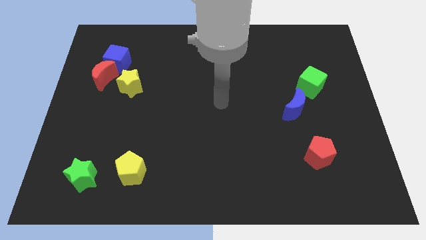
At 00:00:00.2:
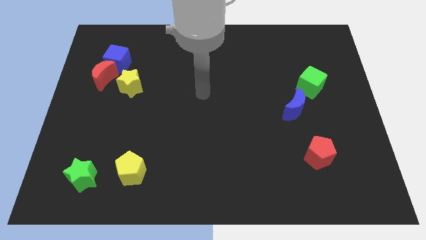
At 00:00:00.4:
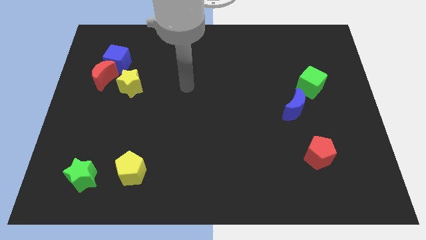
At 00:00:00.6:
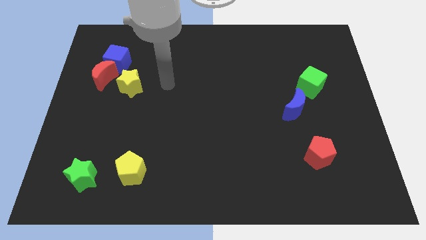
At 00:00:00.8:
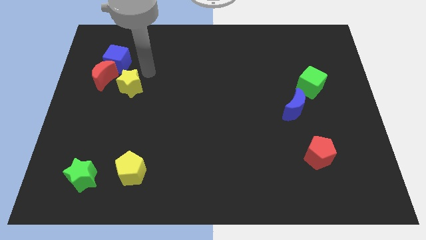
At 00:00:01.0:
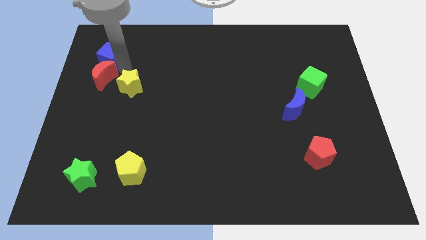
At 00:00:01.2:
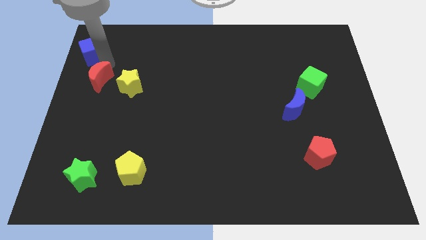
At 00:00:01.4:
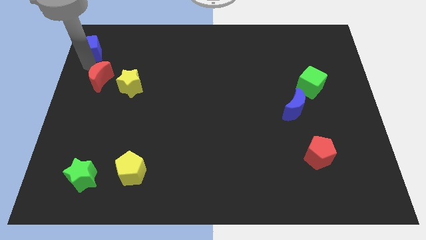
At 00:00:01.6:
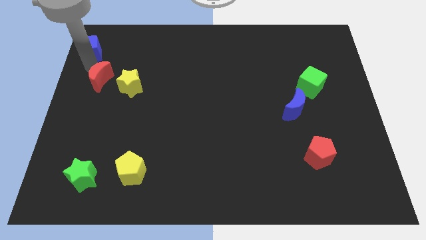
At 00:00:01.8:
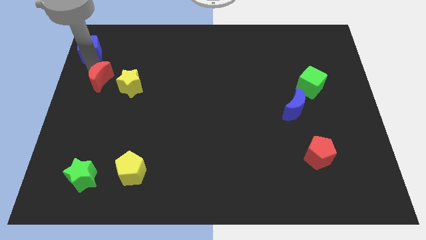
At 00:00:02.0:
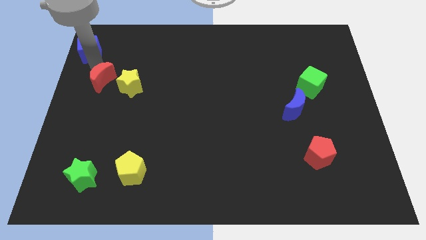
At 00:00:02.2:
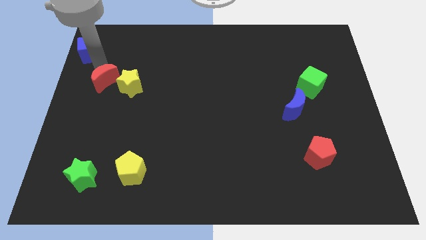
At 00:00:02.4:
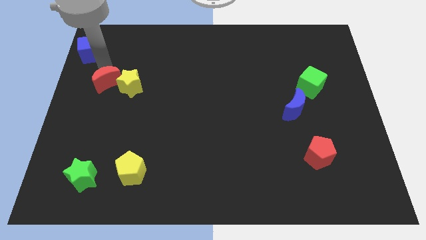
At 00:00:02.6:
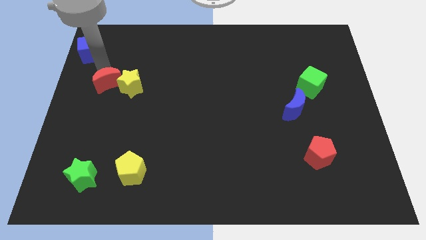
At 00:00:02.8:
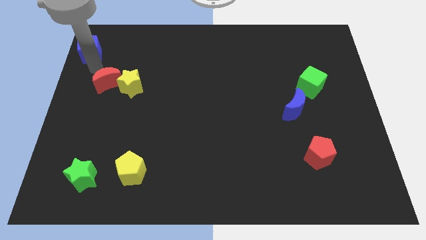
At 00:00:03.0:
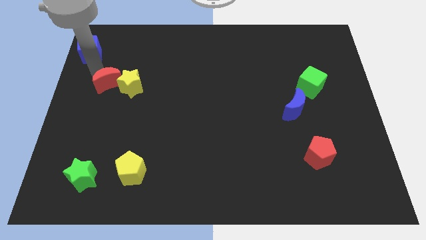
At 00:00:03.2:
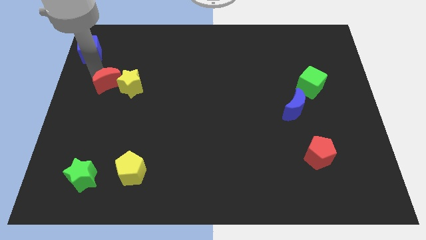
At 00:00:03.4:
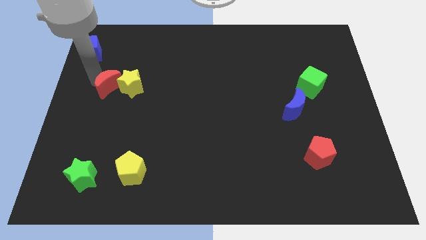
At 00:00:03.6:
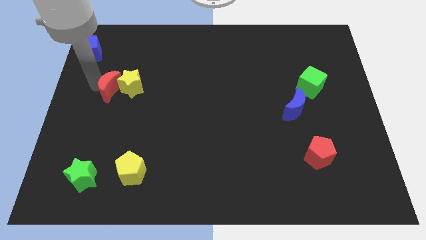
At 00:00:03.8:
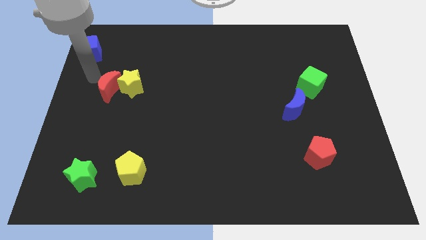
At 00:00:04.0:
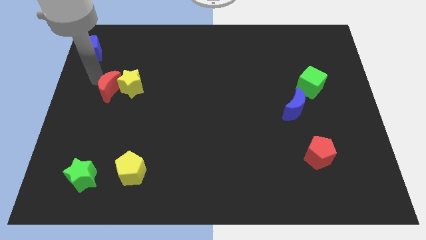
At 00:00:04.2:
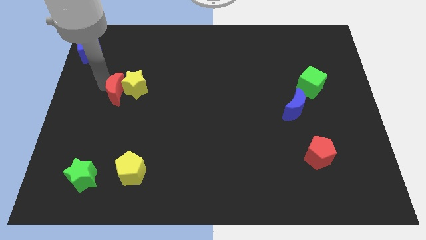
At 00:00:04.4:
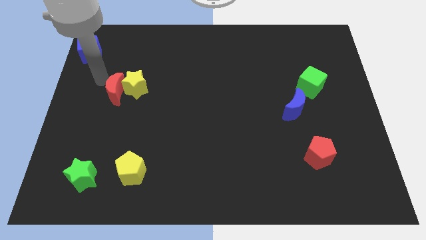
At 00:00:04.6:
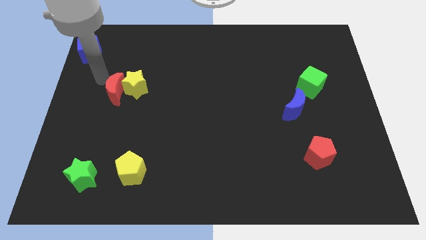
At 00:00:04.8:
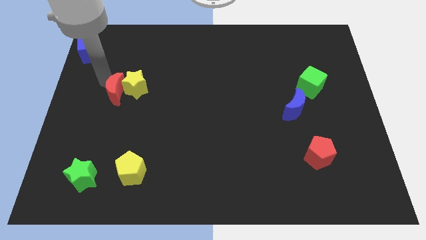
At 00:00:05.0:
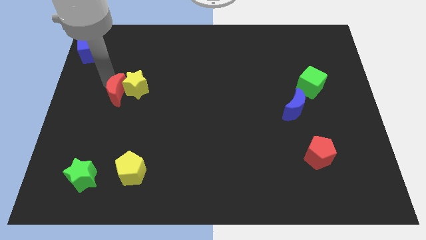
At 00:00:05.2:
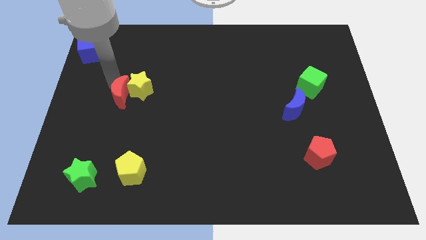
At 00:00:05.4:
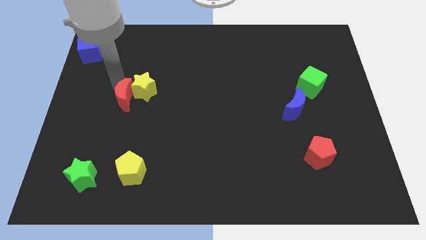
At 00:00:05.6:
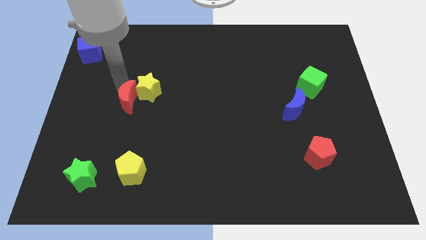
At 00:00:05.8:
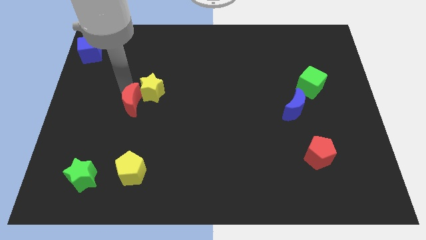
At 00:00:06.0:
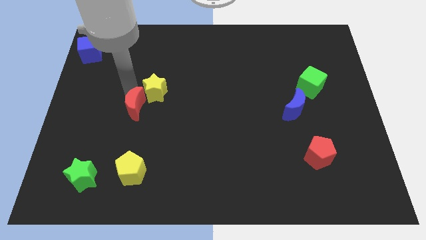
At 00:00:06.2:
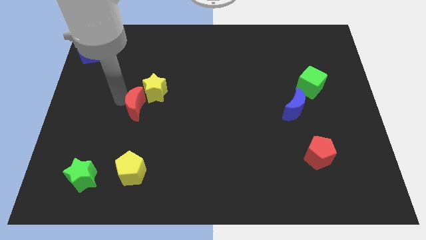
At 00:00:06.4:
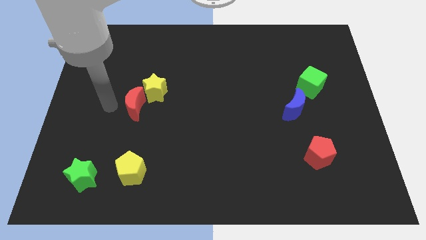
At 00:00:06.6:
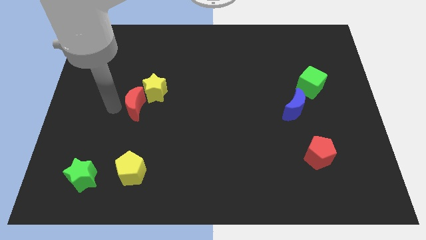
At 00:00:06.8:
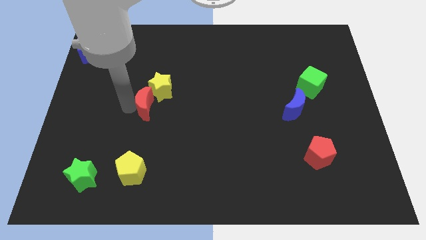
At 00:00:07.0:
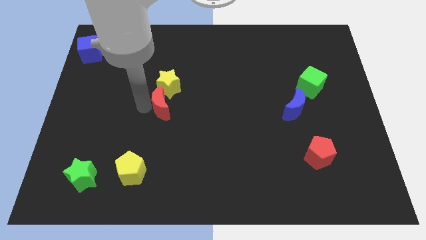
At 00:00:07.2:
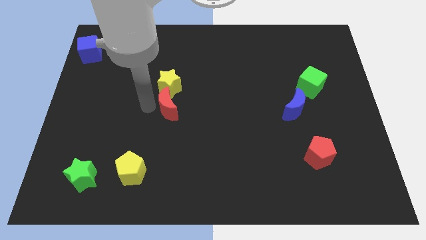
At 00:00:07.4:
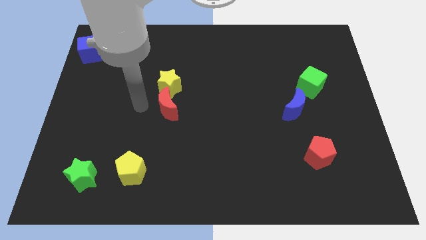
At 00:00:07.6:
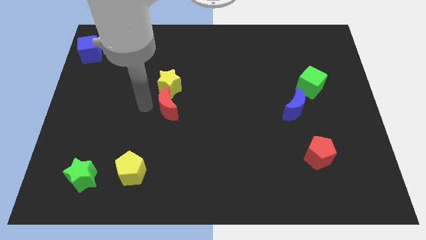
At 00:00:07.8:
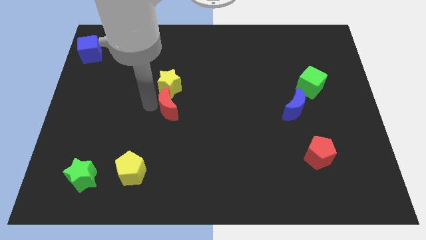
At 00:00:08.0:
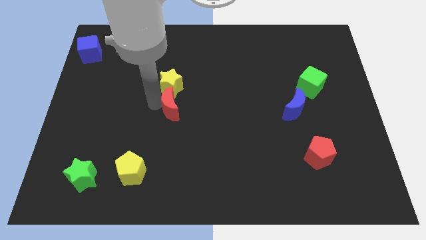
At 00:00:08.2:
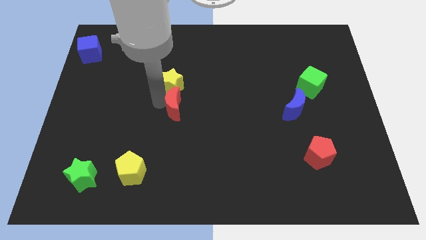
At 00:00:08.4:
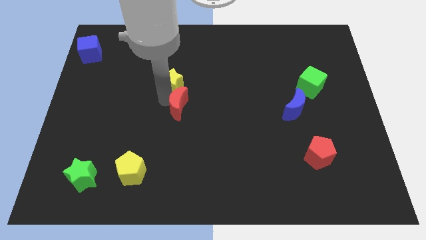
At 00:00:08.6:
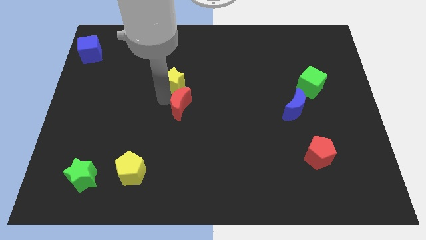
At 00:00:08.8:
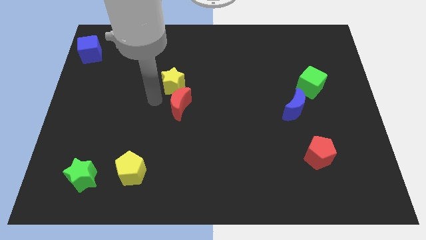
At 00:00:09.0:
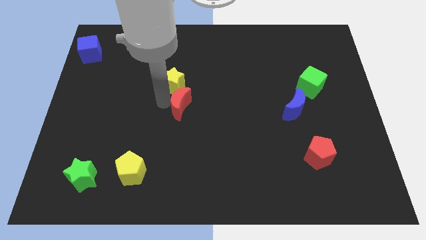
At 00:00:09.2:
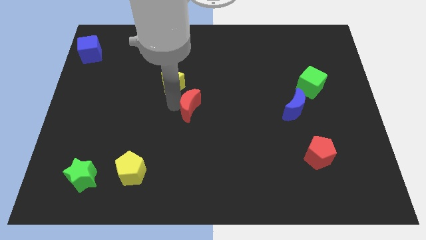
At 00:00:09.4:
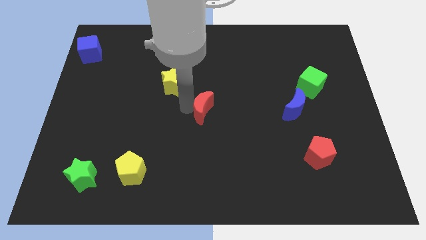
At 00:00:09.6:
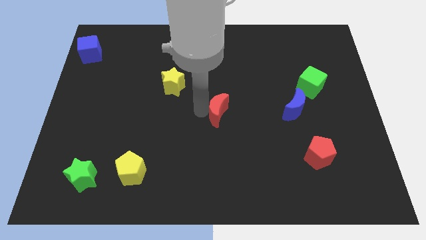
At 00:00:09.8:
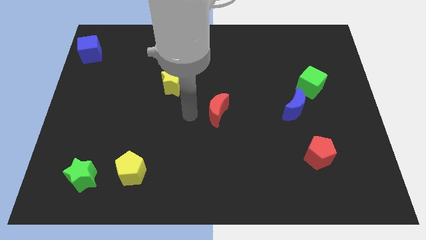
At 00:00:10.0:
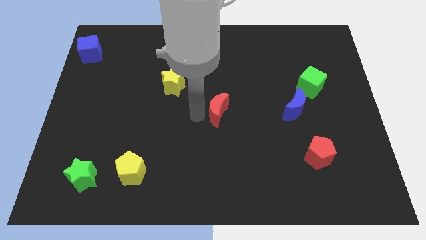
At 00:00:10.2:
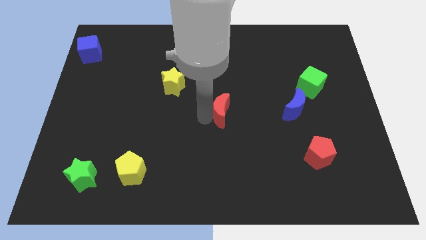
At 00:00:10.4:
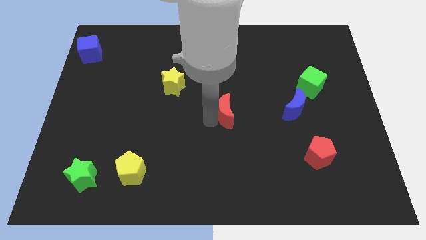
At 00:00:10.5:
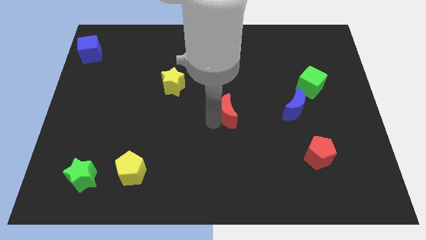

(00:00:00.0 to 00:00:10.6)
put the red moon to the left side of the blue moon

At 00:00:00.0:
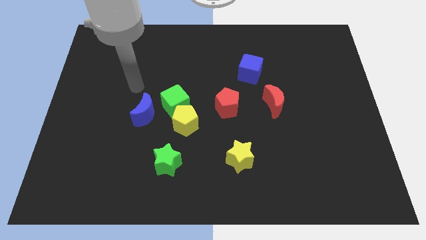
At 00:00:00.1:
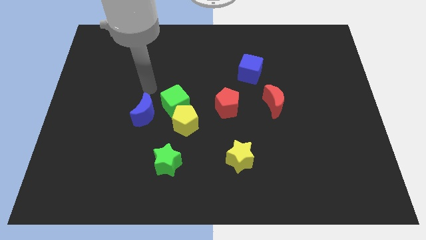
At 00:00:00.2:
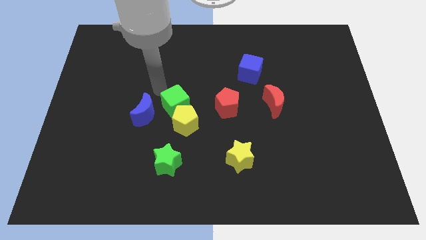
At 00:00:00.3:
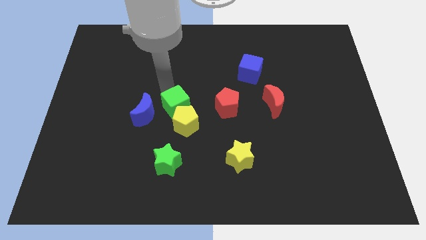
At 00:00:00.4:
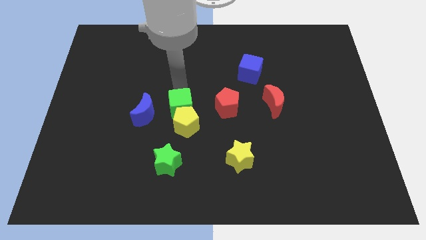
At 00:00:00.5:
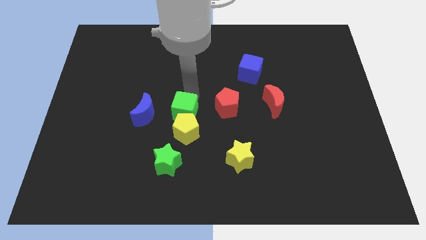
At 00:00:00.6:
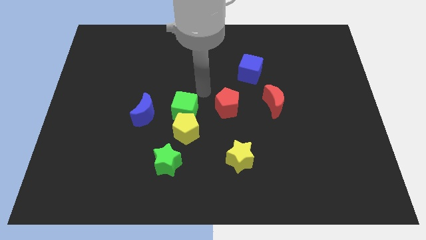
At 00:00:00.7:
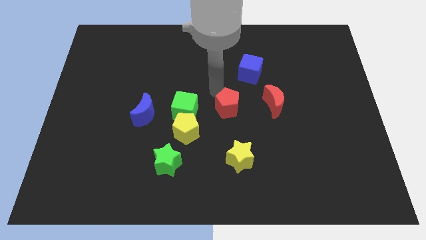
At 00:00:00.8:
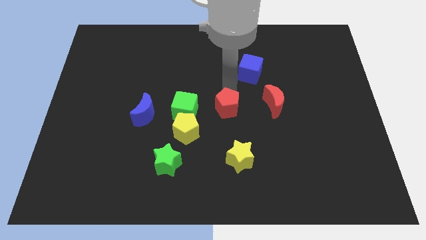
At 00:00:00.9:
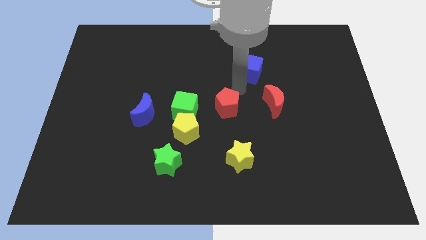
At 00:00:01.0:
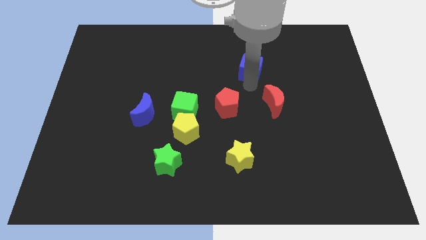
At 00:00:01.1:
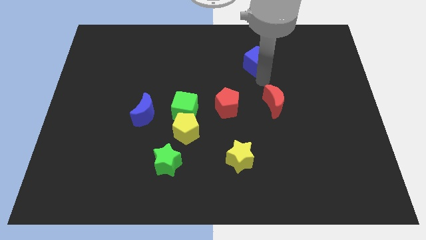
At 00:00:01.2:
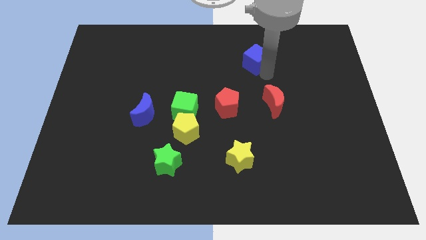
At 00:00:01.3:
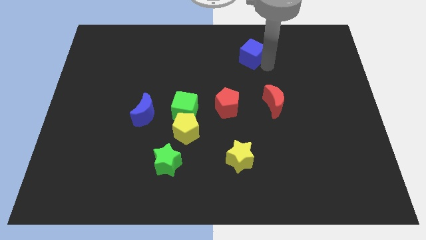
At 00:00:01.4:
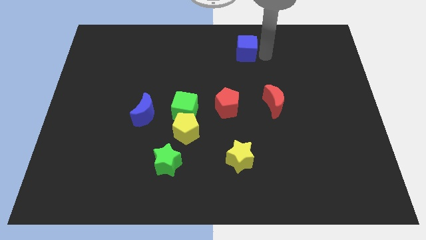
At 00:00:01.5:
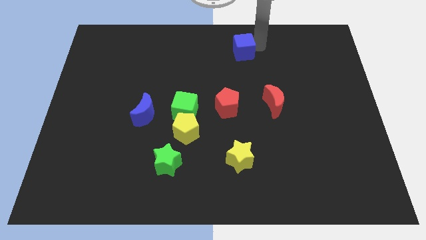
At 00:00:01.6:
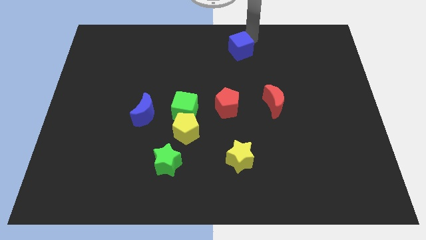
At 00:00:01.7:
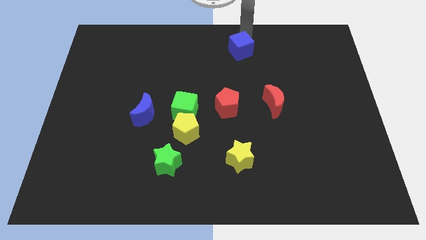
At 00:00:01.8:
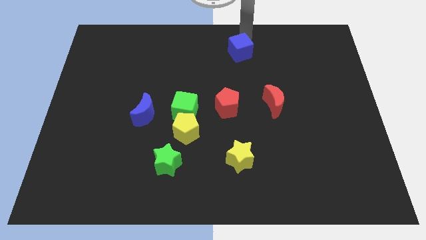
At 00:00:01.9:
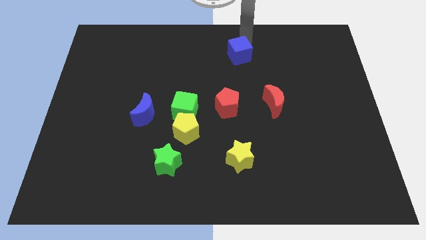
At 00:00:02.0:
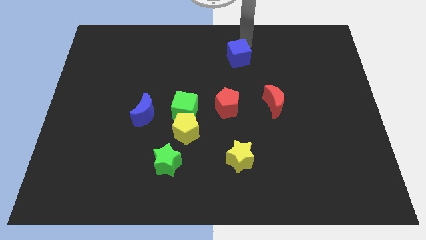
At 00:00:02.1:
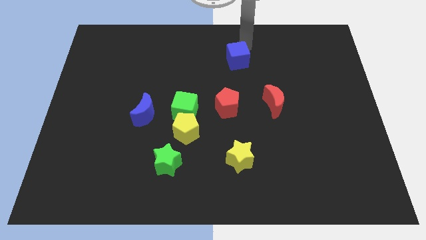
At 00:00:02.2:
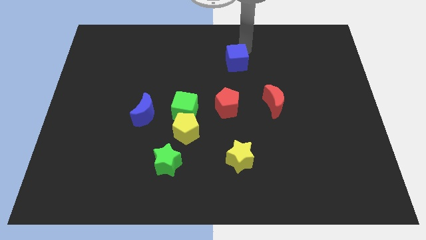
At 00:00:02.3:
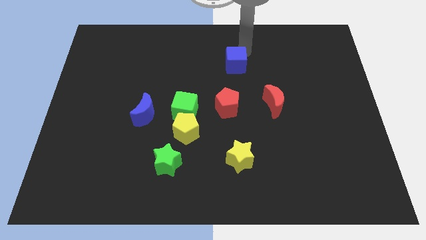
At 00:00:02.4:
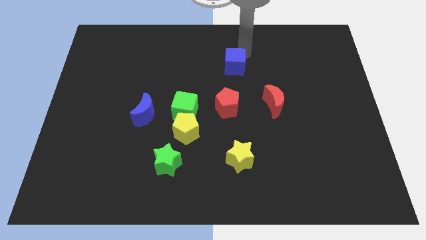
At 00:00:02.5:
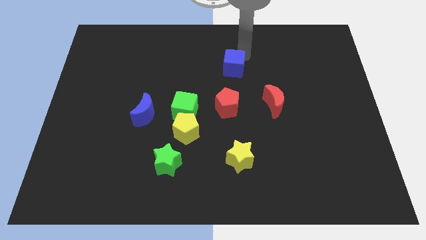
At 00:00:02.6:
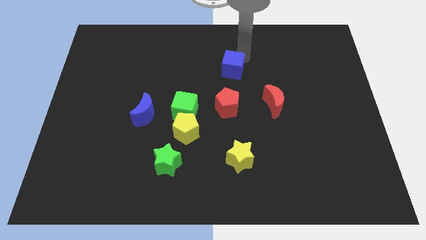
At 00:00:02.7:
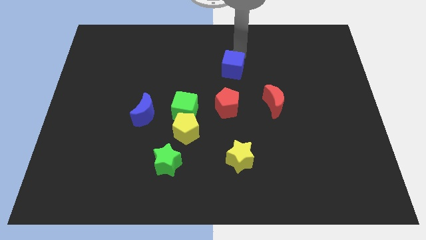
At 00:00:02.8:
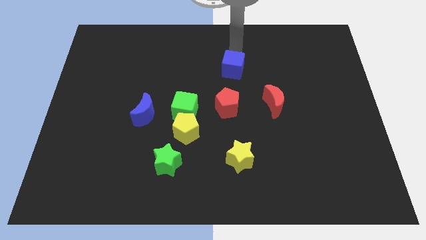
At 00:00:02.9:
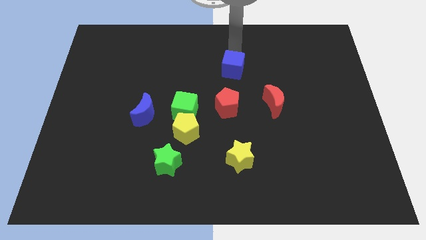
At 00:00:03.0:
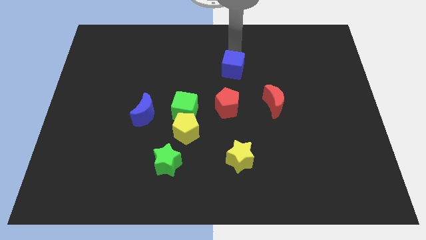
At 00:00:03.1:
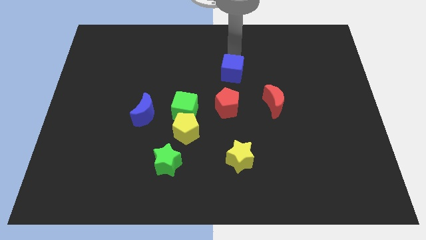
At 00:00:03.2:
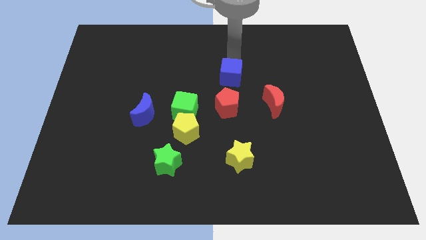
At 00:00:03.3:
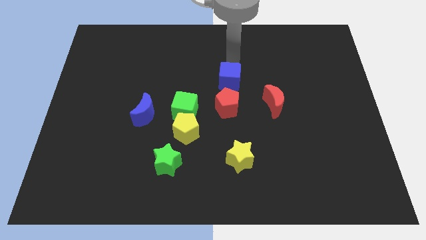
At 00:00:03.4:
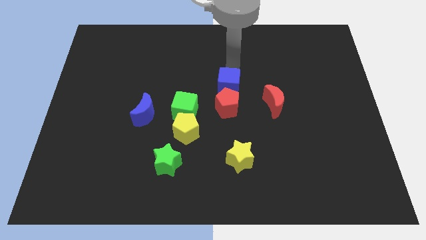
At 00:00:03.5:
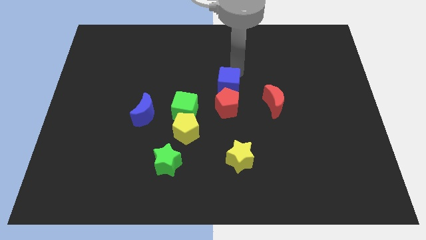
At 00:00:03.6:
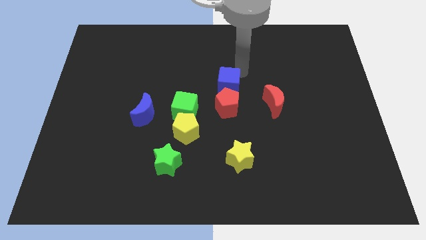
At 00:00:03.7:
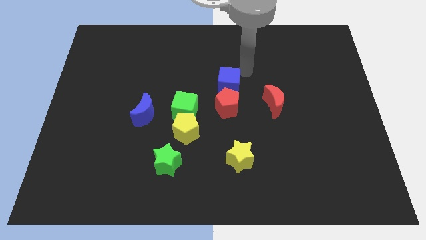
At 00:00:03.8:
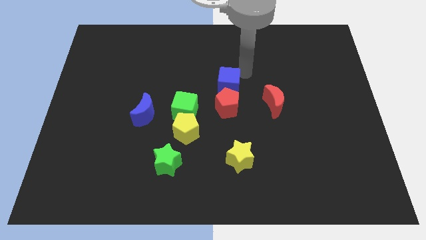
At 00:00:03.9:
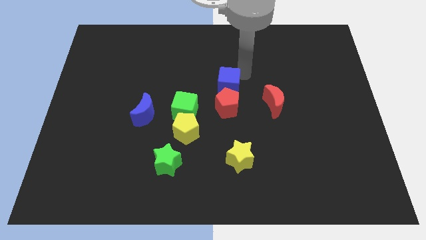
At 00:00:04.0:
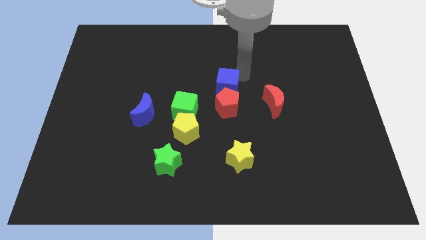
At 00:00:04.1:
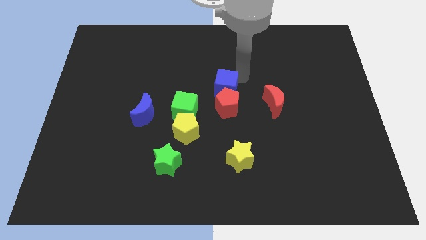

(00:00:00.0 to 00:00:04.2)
move the blue cube to the left of the red moon
